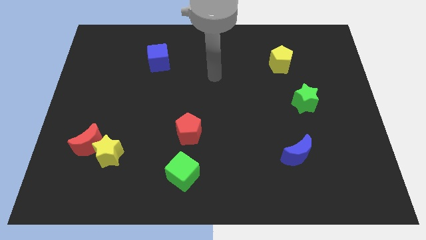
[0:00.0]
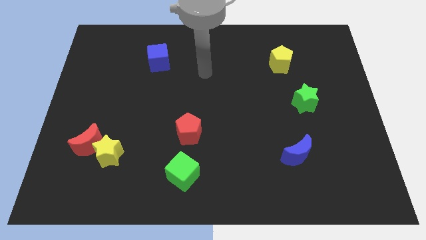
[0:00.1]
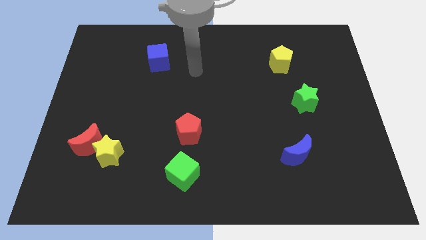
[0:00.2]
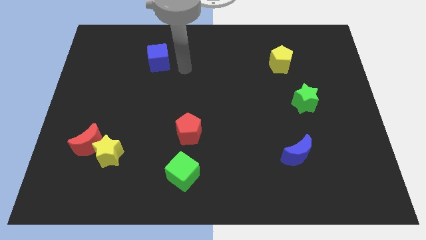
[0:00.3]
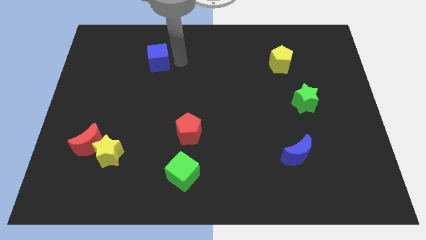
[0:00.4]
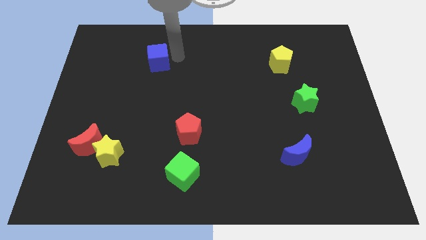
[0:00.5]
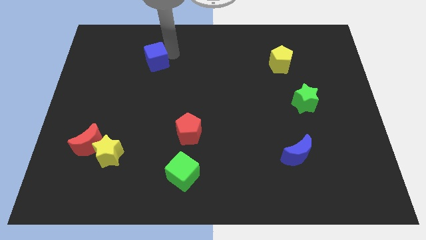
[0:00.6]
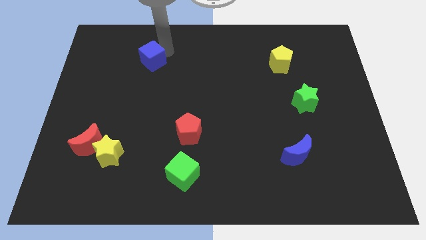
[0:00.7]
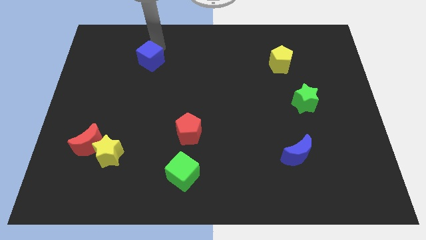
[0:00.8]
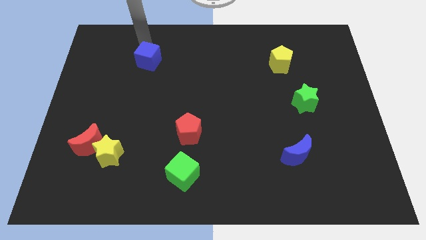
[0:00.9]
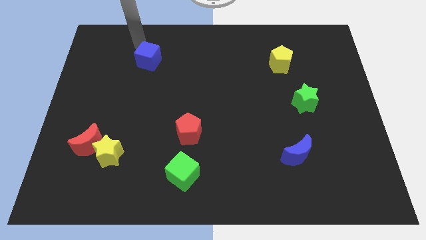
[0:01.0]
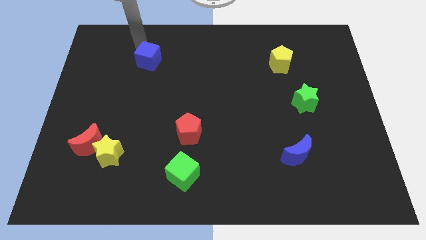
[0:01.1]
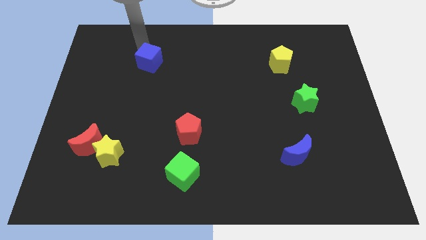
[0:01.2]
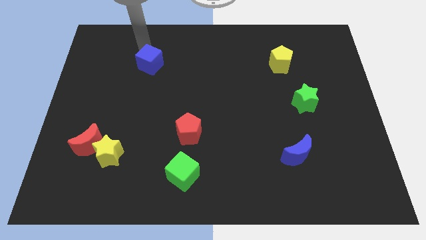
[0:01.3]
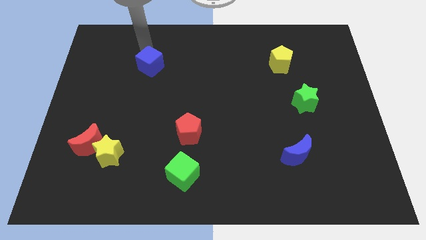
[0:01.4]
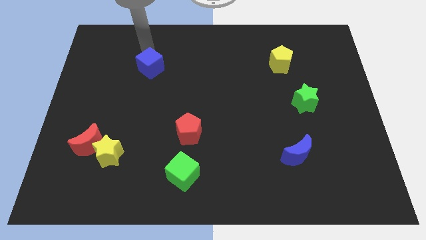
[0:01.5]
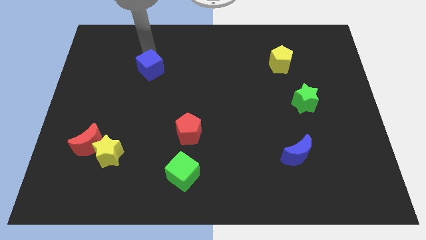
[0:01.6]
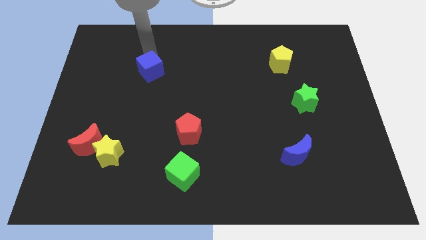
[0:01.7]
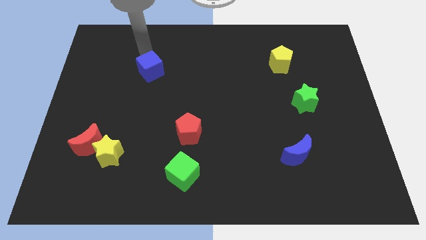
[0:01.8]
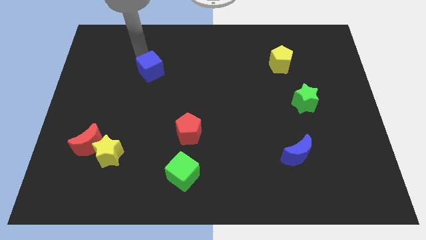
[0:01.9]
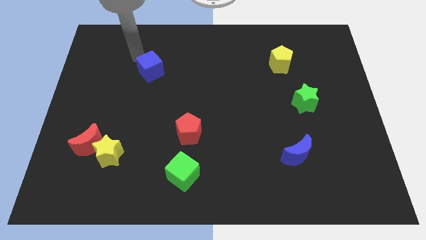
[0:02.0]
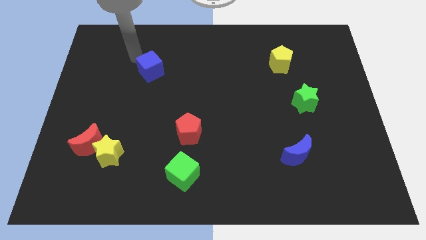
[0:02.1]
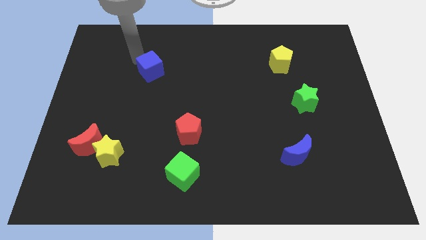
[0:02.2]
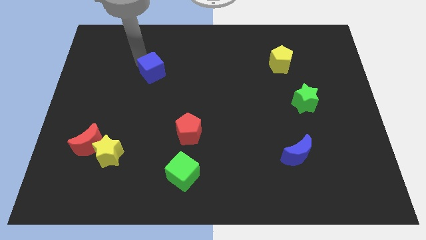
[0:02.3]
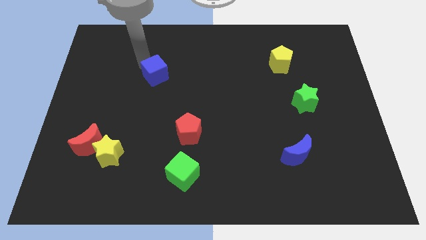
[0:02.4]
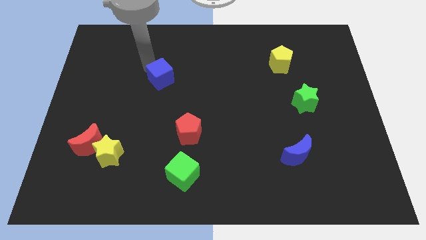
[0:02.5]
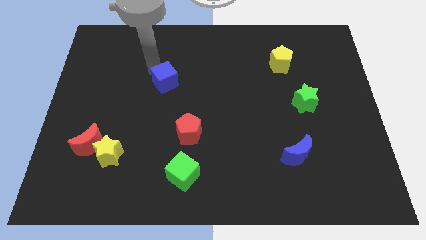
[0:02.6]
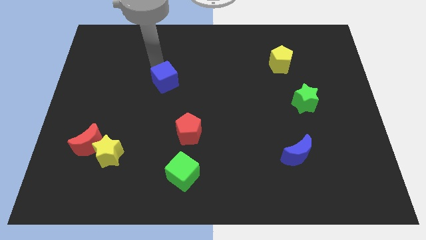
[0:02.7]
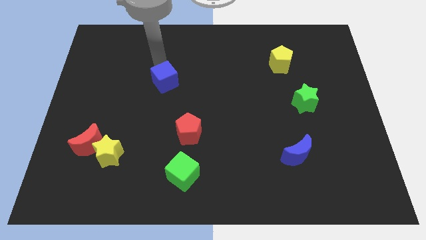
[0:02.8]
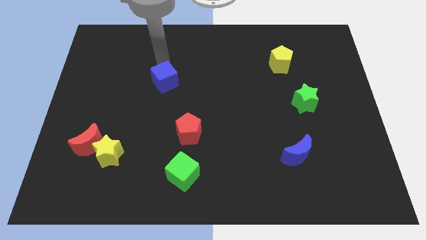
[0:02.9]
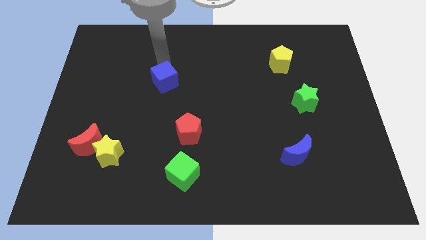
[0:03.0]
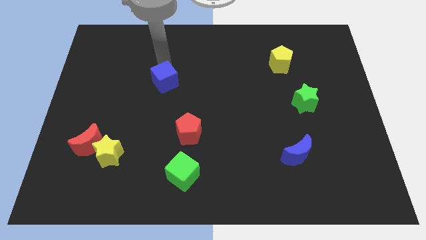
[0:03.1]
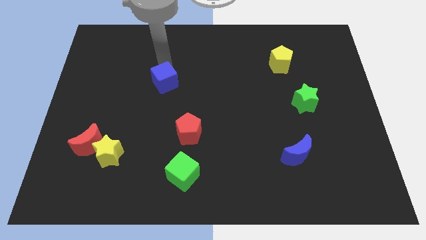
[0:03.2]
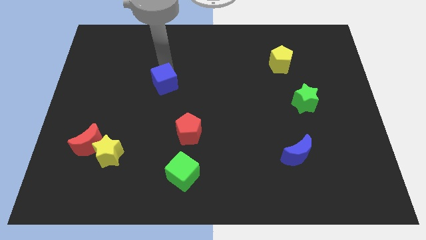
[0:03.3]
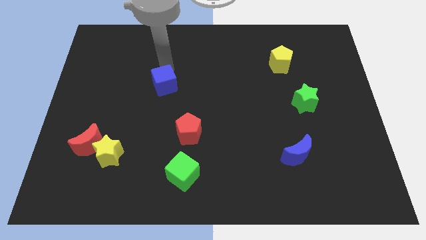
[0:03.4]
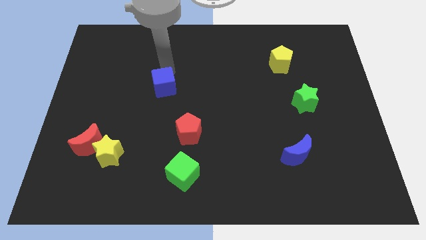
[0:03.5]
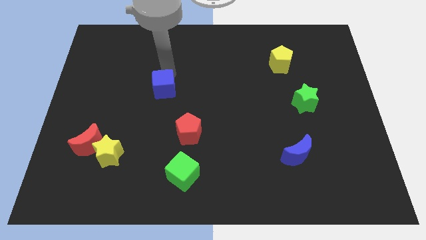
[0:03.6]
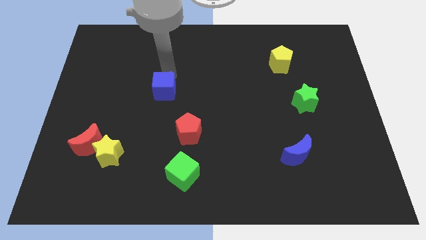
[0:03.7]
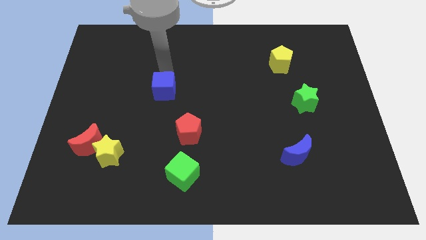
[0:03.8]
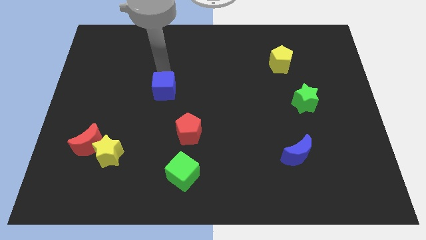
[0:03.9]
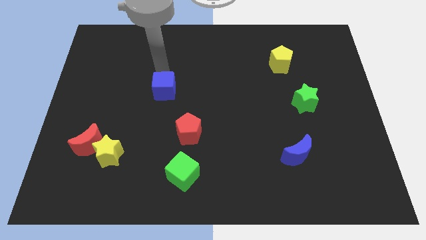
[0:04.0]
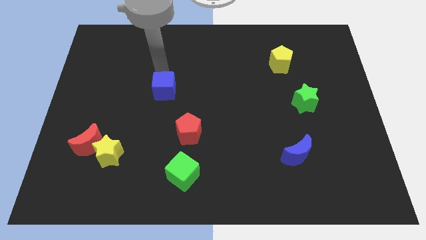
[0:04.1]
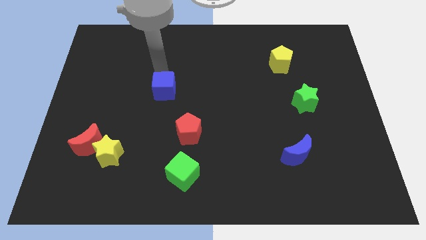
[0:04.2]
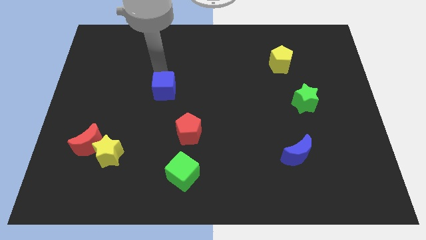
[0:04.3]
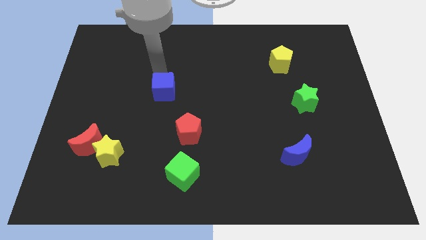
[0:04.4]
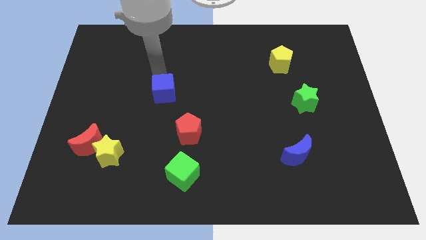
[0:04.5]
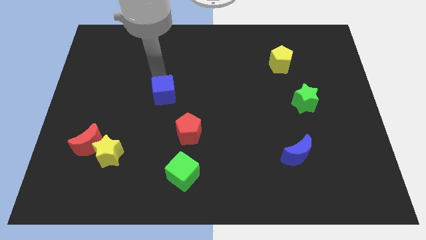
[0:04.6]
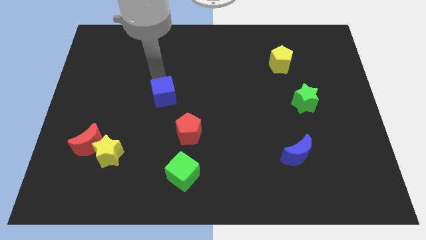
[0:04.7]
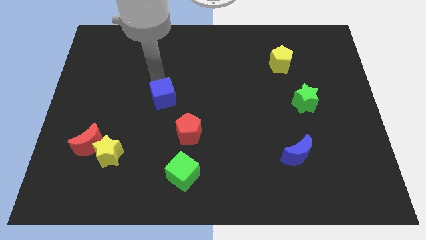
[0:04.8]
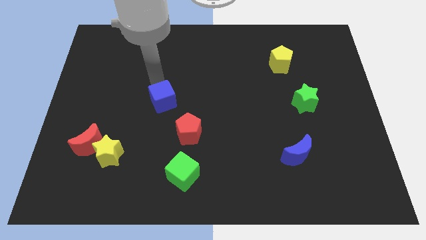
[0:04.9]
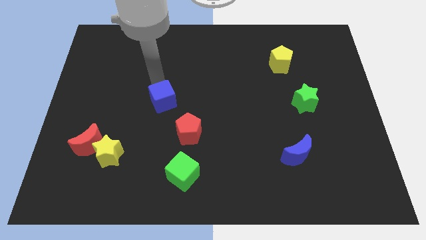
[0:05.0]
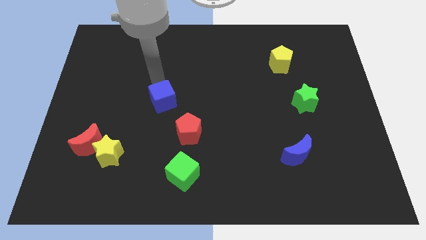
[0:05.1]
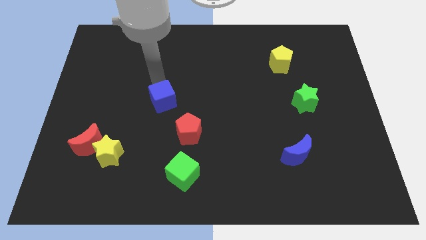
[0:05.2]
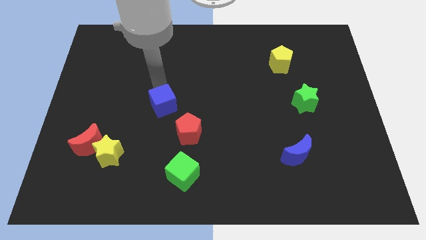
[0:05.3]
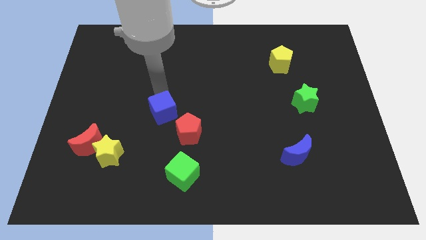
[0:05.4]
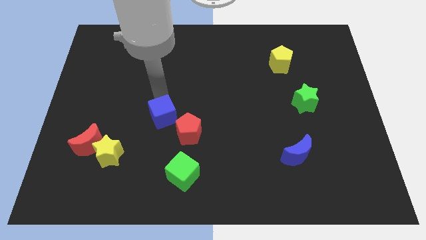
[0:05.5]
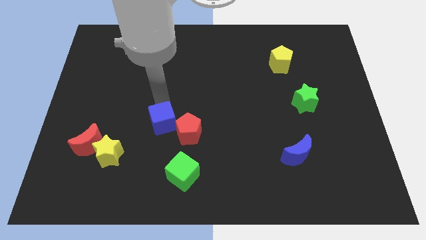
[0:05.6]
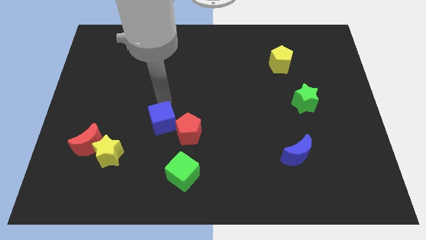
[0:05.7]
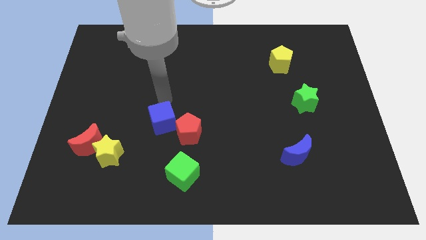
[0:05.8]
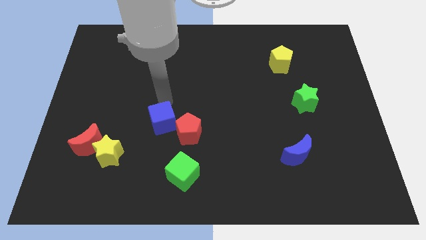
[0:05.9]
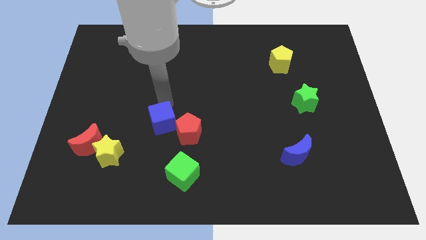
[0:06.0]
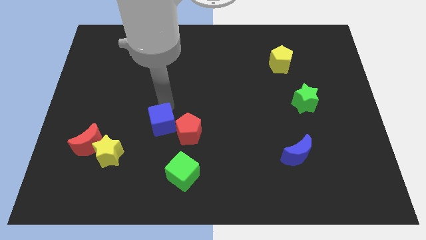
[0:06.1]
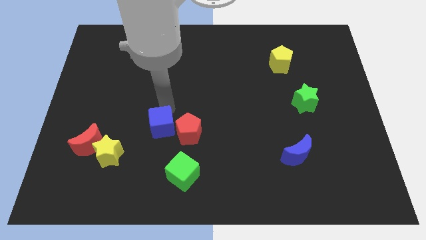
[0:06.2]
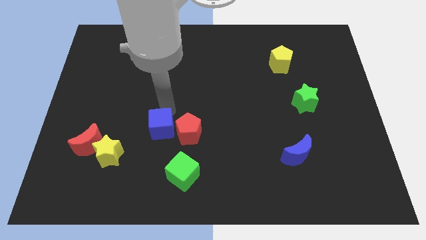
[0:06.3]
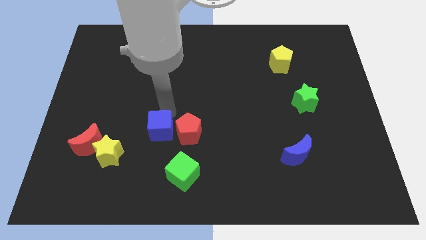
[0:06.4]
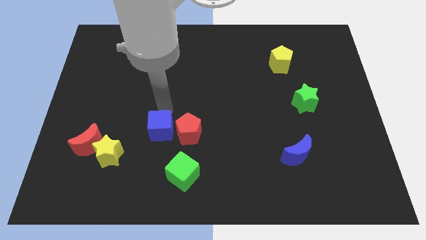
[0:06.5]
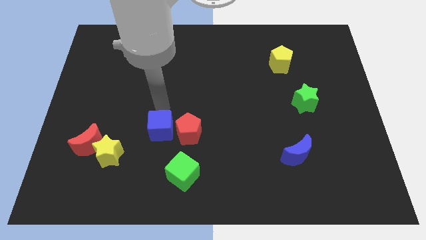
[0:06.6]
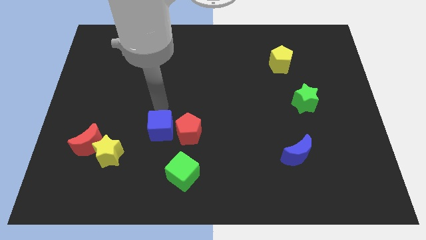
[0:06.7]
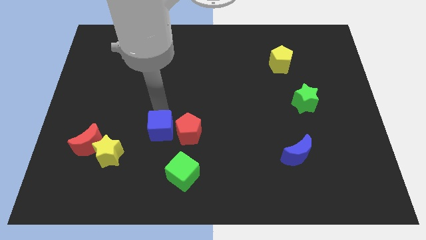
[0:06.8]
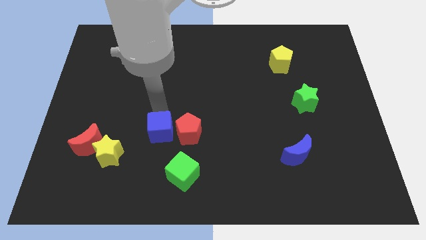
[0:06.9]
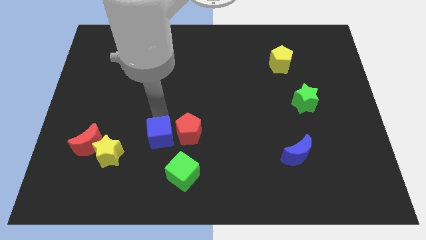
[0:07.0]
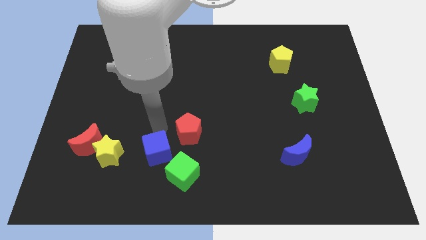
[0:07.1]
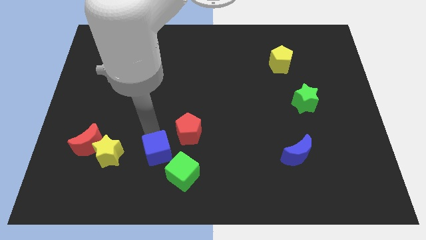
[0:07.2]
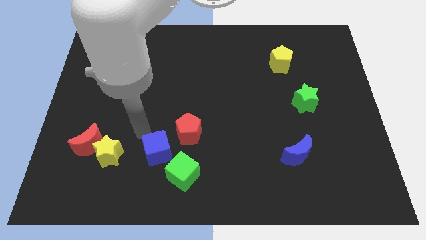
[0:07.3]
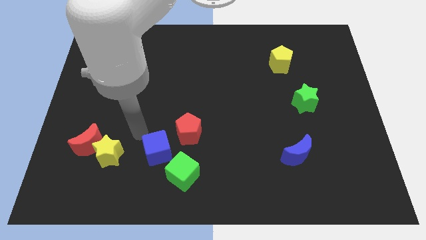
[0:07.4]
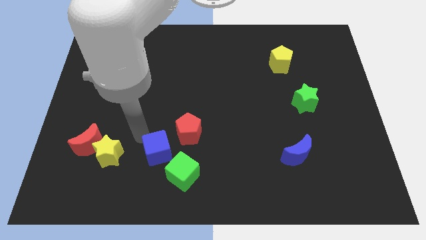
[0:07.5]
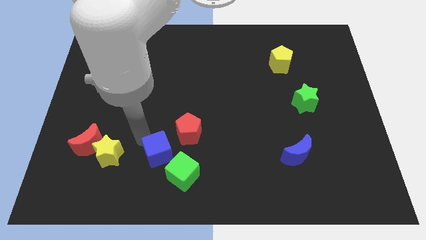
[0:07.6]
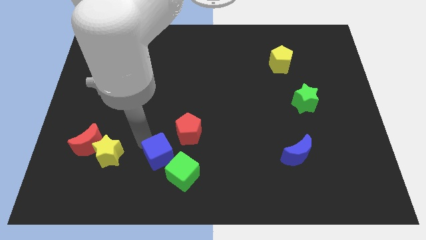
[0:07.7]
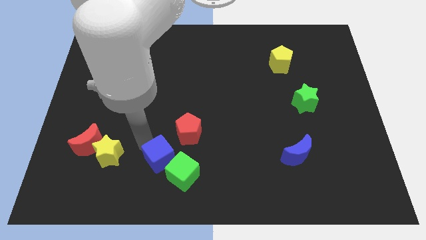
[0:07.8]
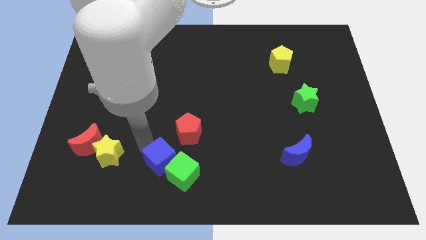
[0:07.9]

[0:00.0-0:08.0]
push the blue cube next to the green cube
